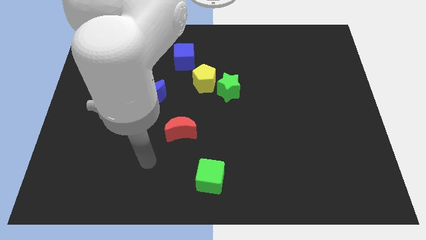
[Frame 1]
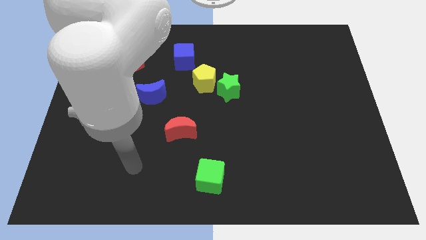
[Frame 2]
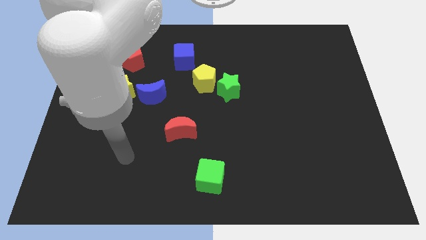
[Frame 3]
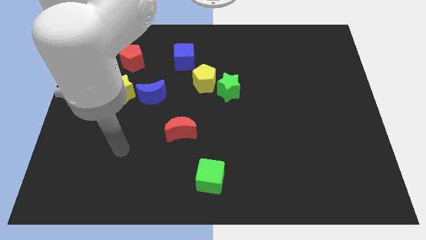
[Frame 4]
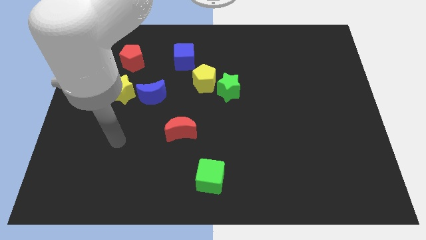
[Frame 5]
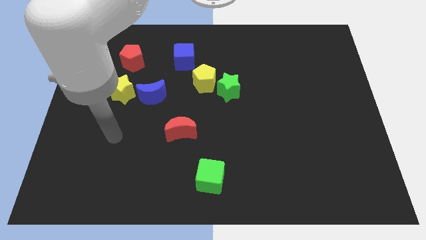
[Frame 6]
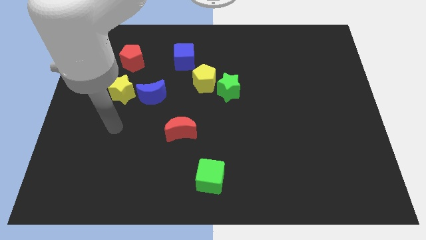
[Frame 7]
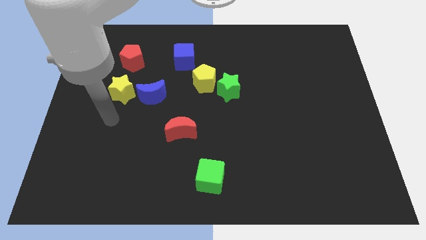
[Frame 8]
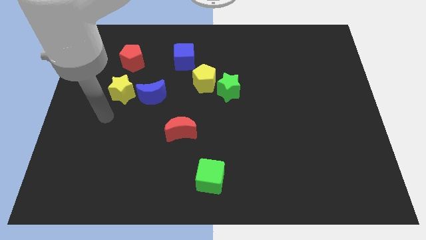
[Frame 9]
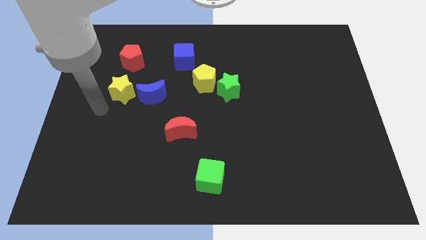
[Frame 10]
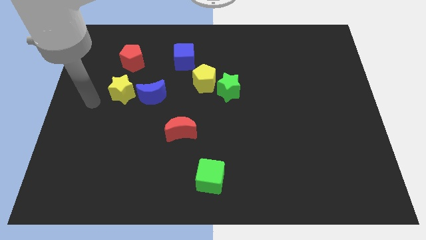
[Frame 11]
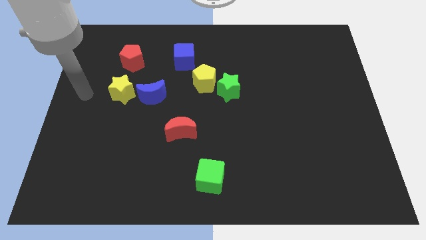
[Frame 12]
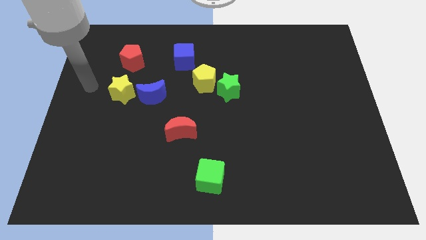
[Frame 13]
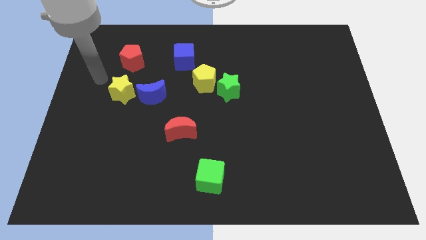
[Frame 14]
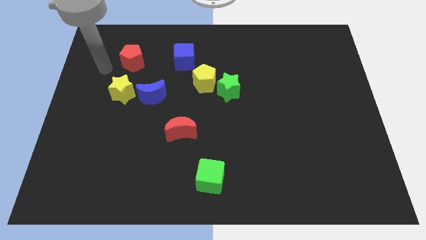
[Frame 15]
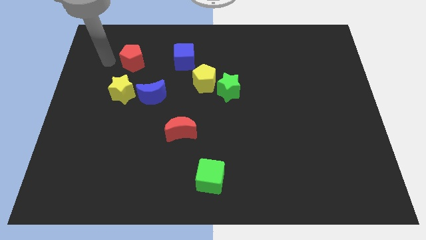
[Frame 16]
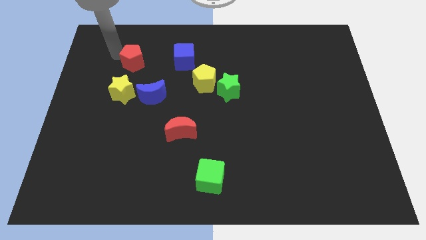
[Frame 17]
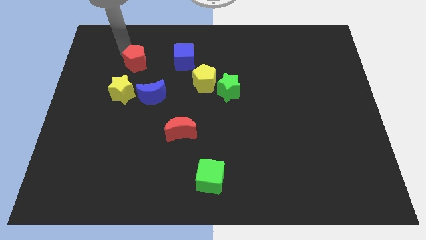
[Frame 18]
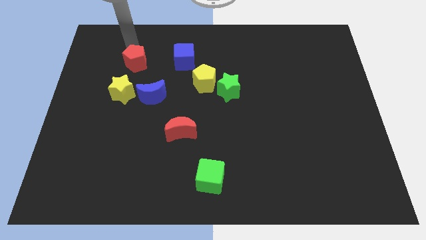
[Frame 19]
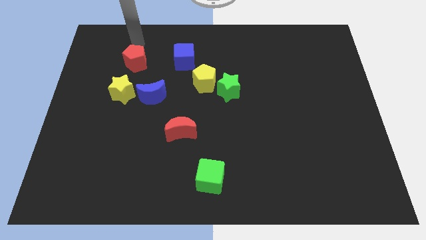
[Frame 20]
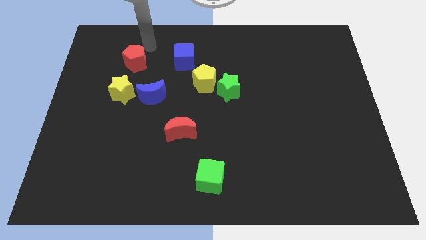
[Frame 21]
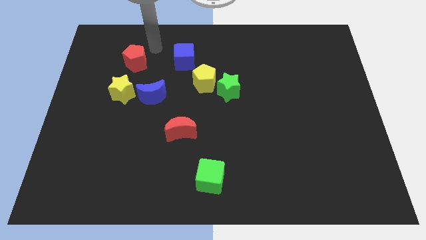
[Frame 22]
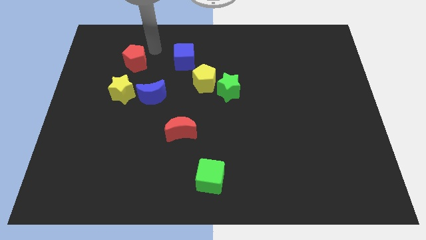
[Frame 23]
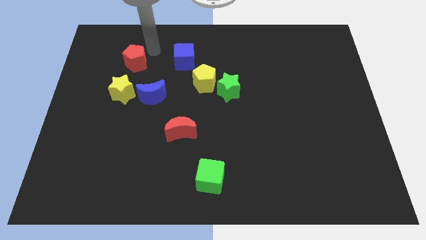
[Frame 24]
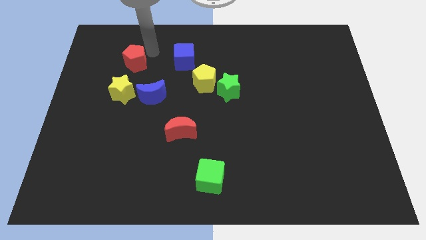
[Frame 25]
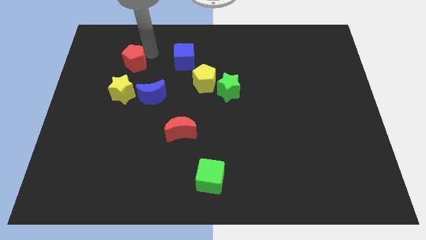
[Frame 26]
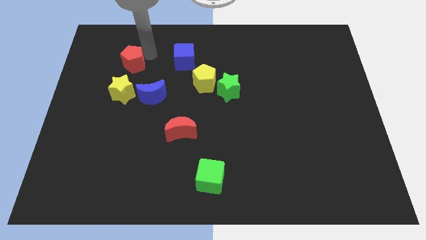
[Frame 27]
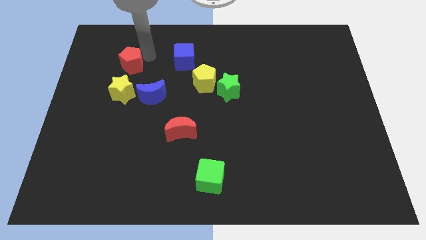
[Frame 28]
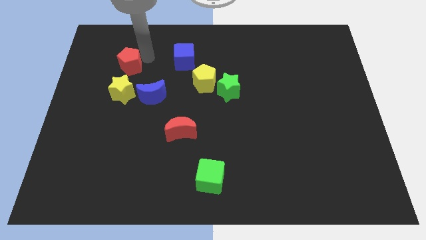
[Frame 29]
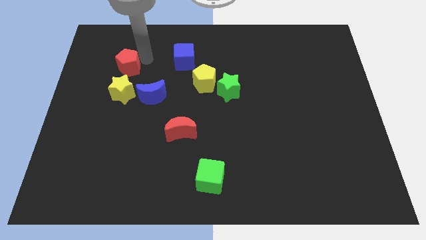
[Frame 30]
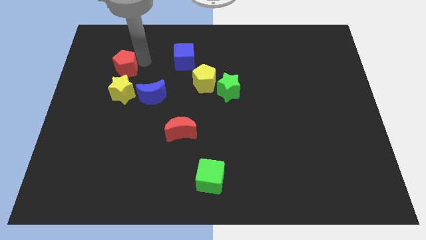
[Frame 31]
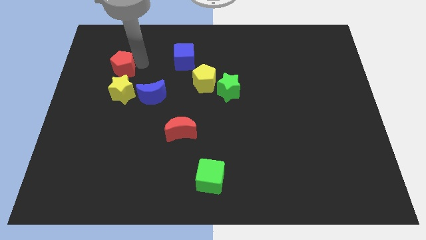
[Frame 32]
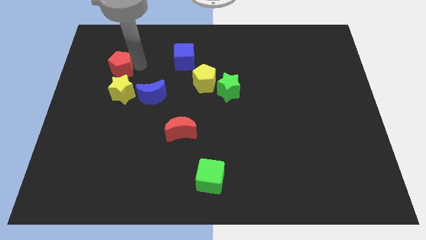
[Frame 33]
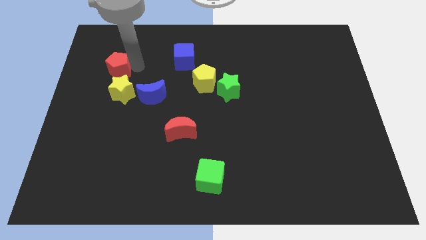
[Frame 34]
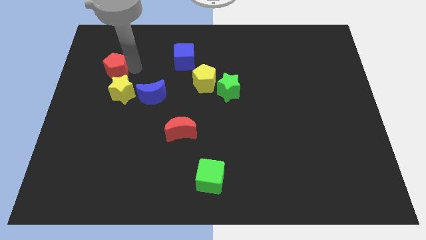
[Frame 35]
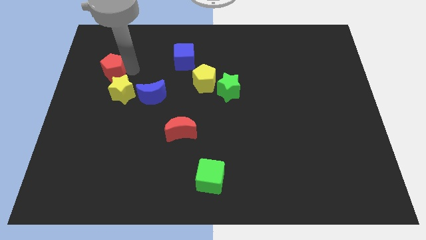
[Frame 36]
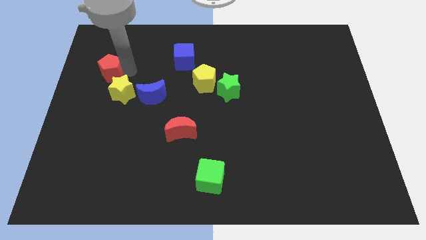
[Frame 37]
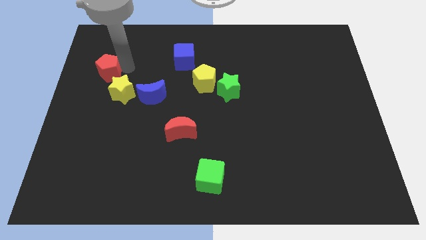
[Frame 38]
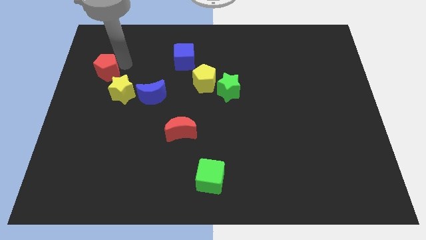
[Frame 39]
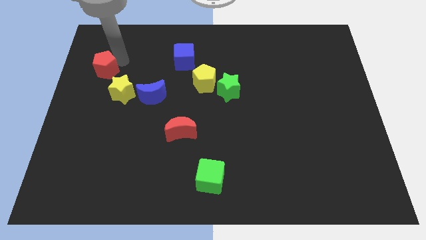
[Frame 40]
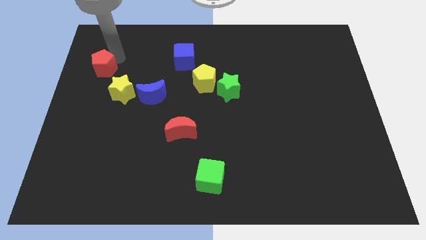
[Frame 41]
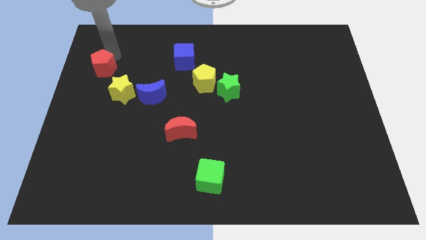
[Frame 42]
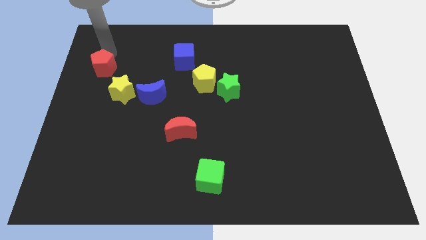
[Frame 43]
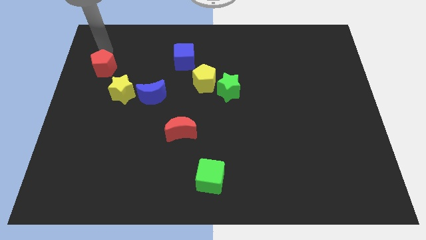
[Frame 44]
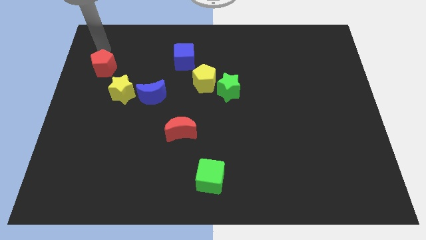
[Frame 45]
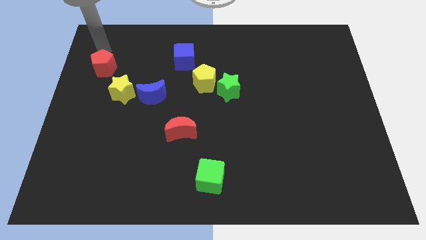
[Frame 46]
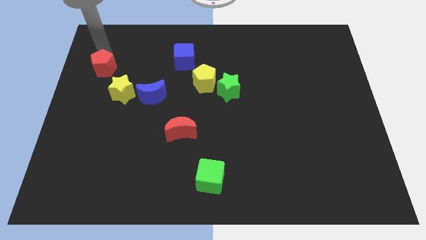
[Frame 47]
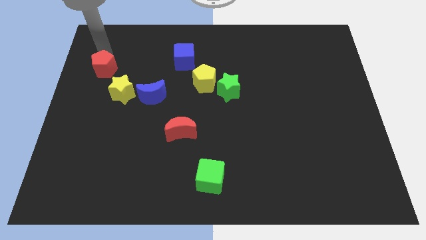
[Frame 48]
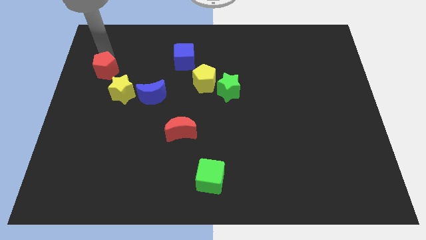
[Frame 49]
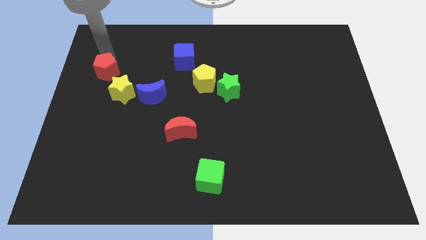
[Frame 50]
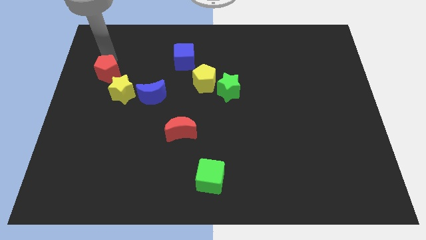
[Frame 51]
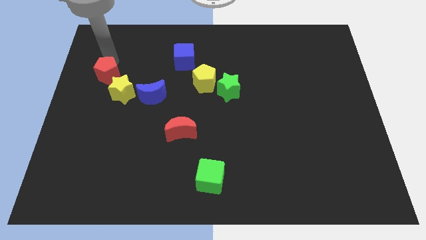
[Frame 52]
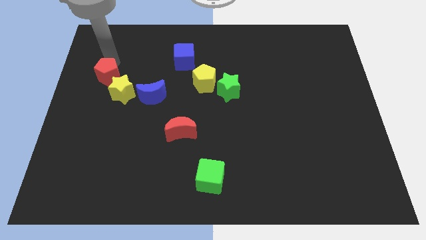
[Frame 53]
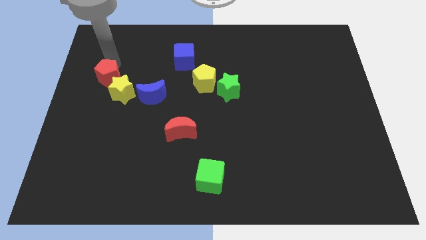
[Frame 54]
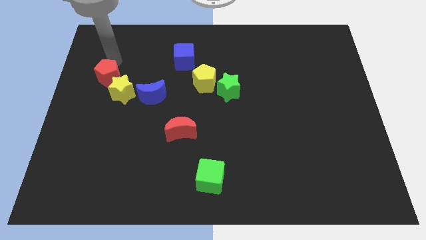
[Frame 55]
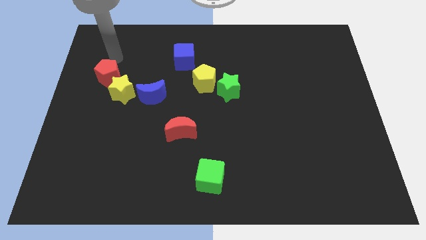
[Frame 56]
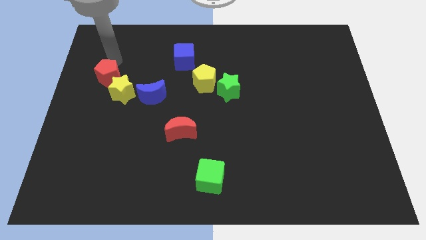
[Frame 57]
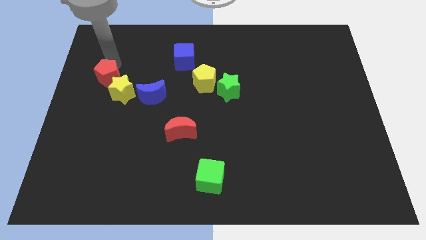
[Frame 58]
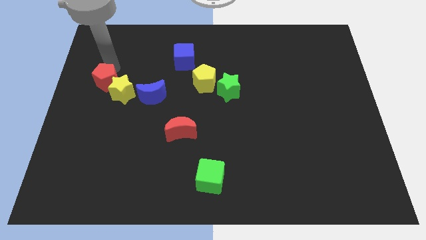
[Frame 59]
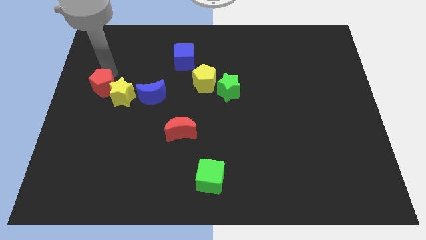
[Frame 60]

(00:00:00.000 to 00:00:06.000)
move the red pentagon downwards somewhat

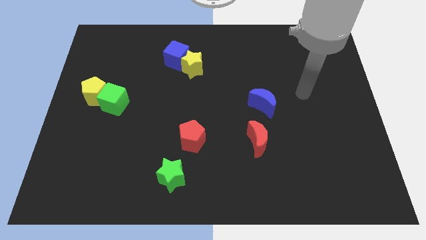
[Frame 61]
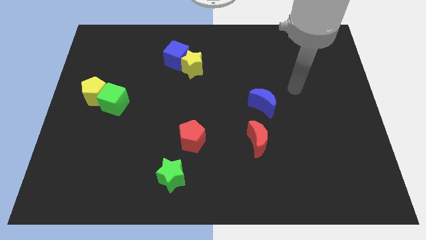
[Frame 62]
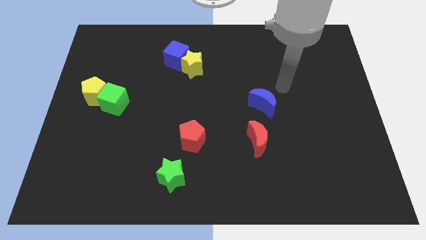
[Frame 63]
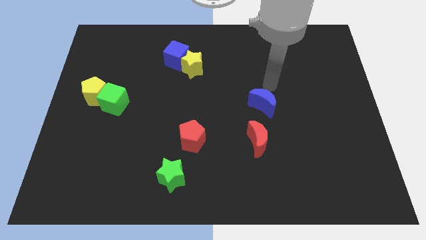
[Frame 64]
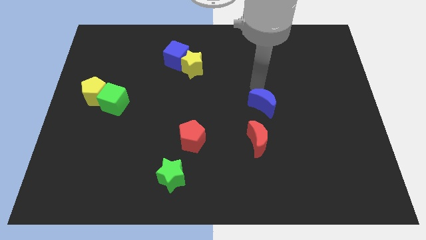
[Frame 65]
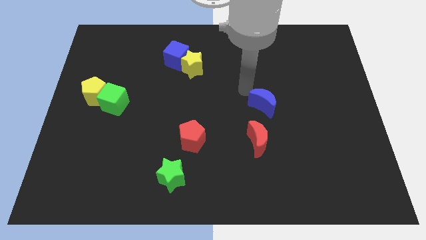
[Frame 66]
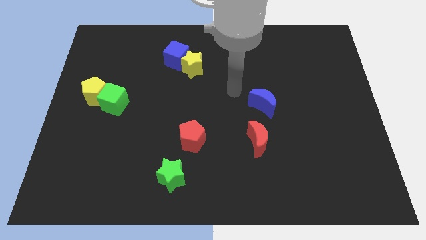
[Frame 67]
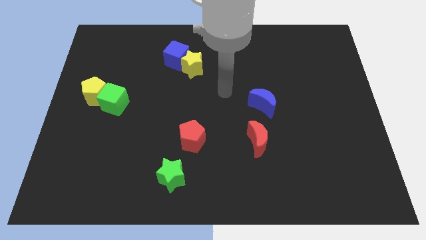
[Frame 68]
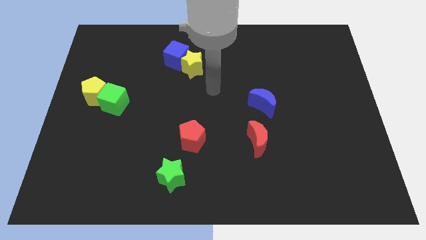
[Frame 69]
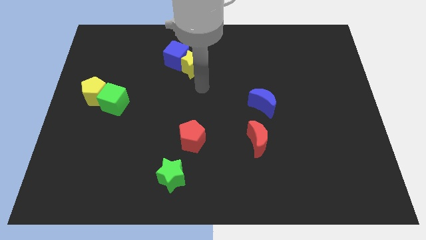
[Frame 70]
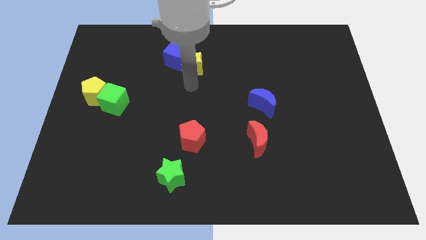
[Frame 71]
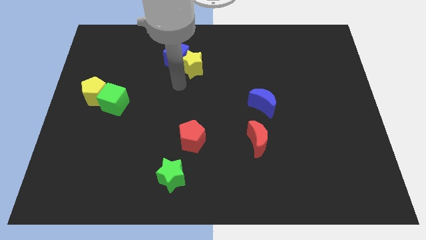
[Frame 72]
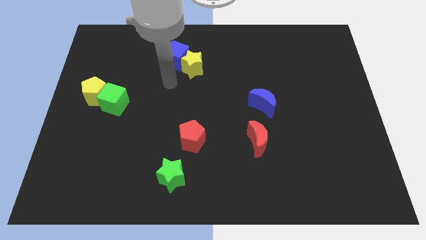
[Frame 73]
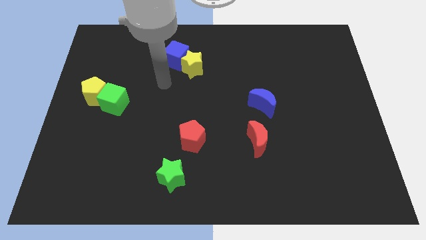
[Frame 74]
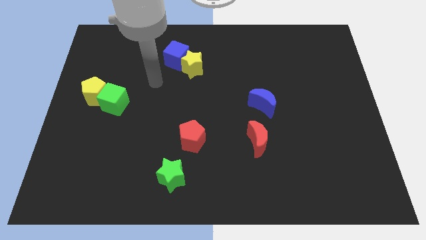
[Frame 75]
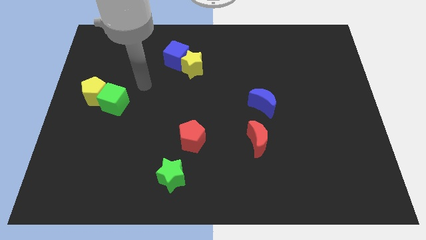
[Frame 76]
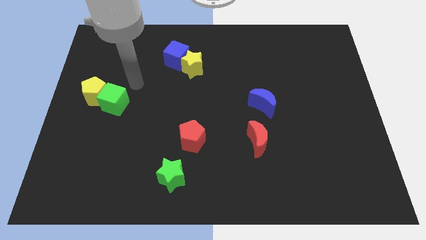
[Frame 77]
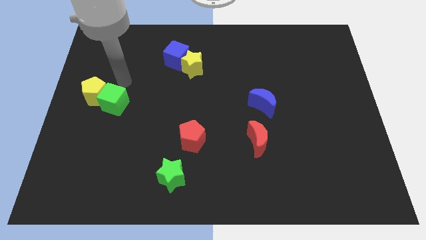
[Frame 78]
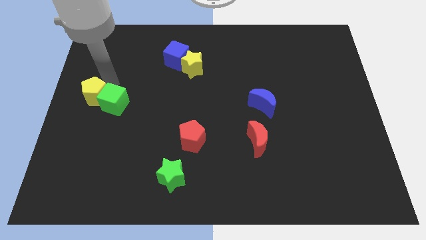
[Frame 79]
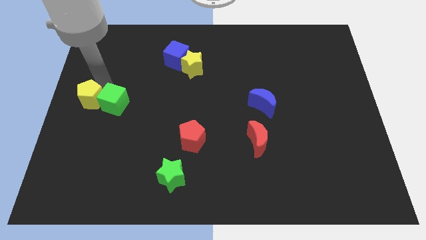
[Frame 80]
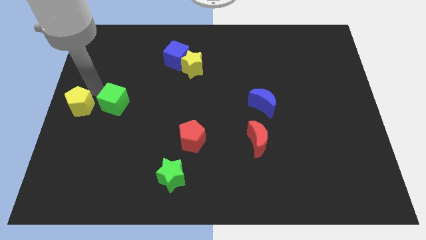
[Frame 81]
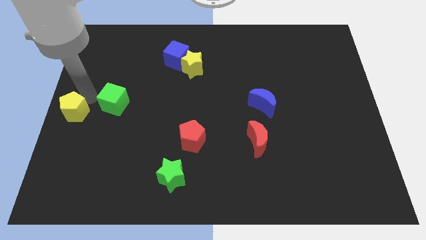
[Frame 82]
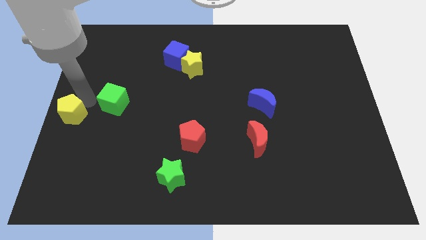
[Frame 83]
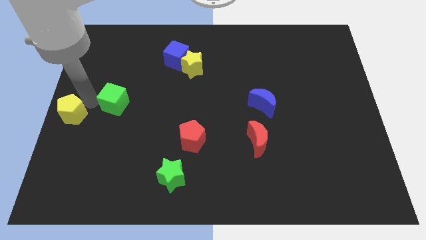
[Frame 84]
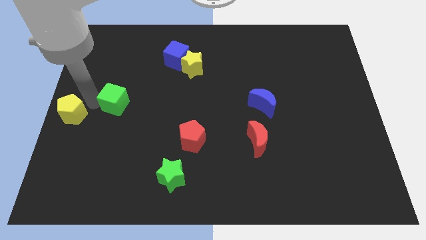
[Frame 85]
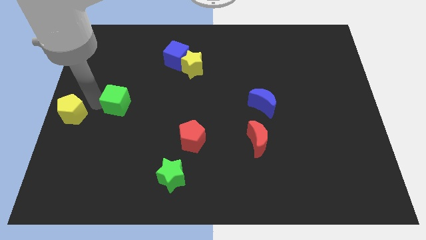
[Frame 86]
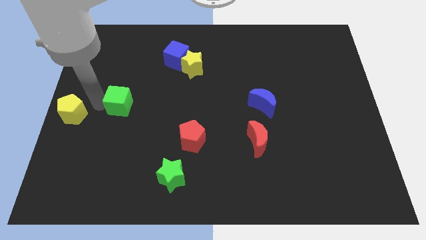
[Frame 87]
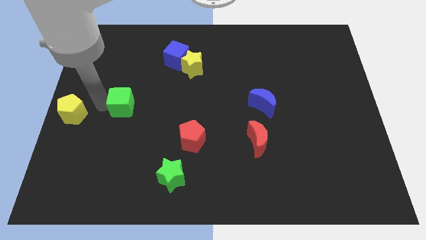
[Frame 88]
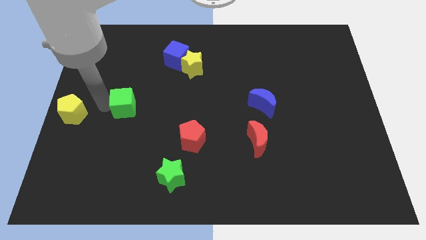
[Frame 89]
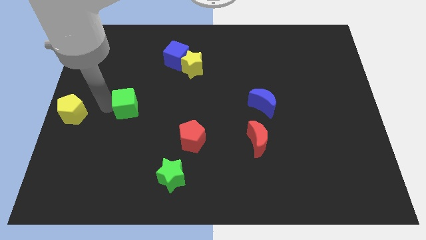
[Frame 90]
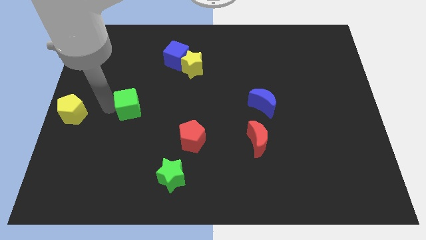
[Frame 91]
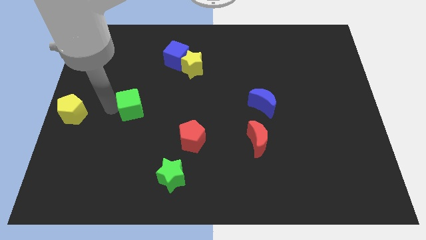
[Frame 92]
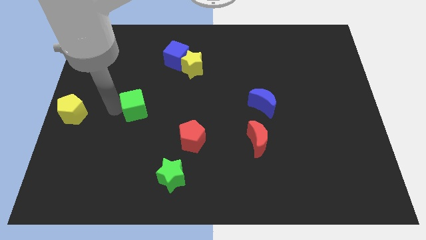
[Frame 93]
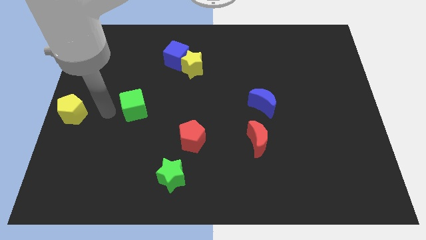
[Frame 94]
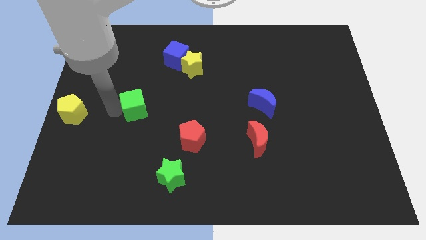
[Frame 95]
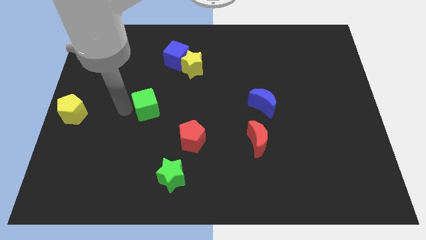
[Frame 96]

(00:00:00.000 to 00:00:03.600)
move the green cube a little right
